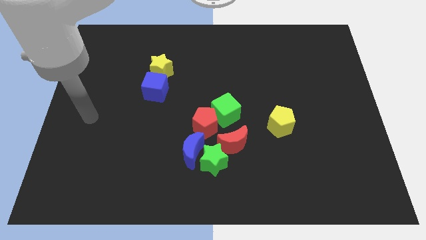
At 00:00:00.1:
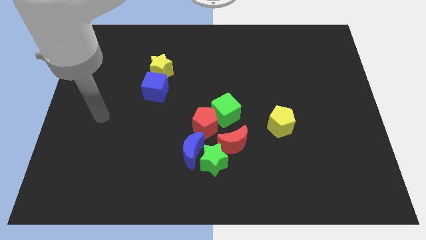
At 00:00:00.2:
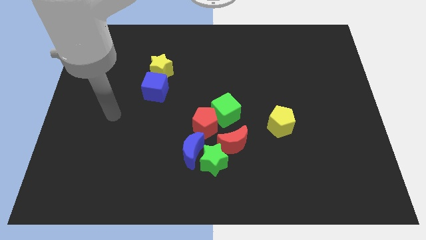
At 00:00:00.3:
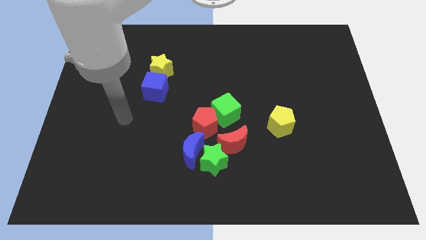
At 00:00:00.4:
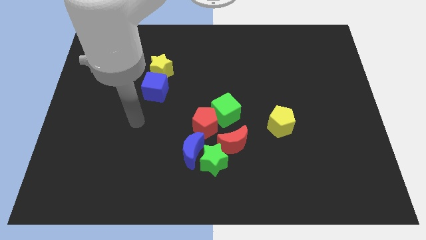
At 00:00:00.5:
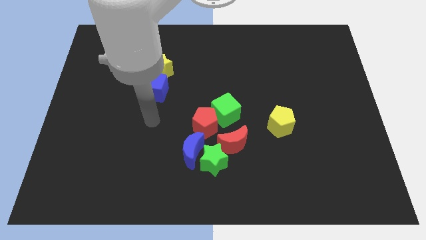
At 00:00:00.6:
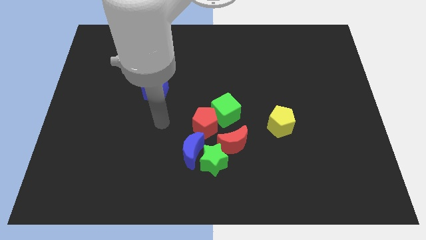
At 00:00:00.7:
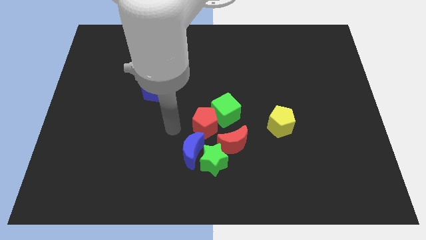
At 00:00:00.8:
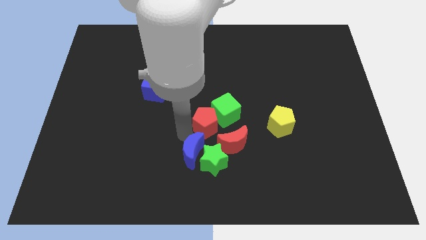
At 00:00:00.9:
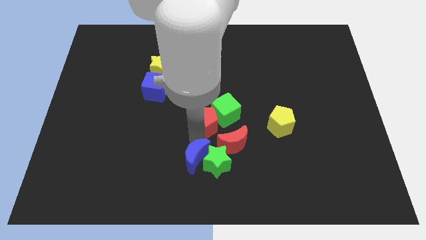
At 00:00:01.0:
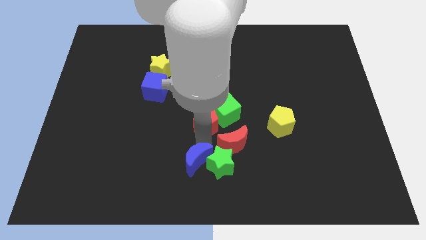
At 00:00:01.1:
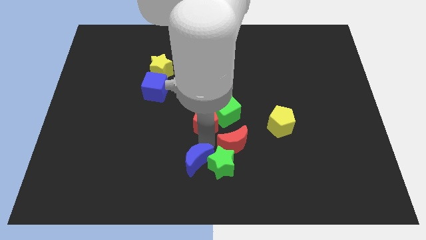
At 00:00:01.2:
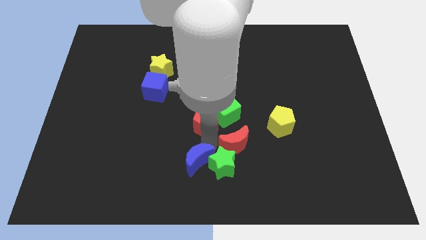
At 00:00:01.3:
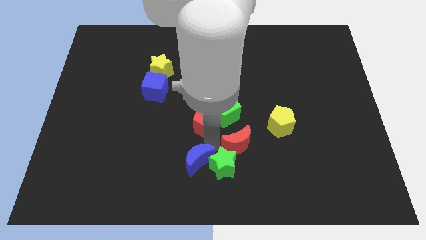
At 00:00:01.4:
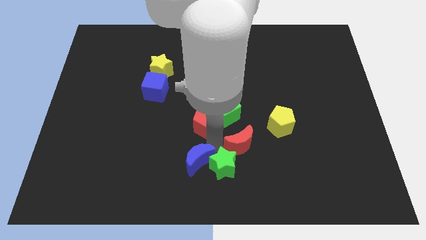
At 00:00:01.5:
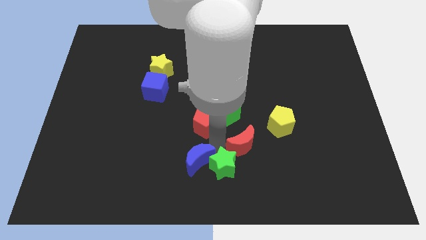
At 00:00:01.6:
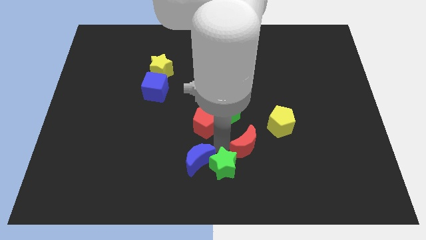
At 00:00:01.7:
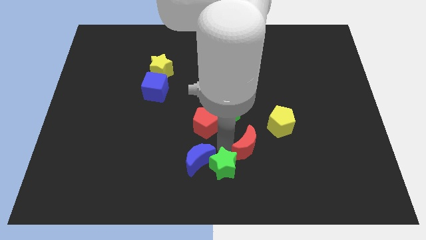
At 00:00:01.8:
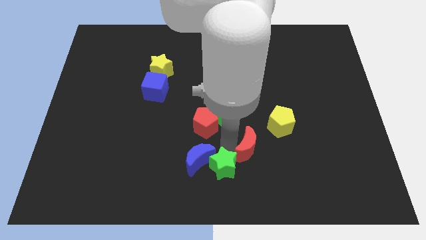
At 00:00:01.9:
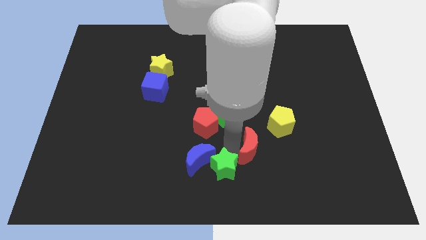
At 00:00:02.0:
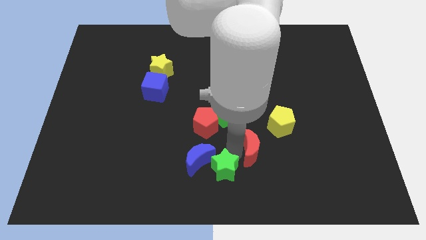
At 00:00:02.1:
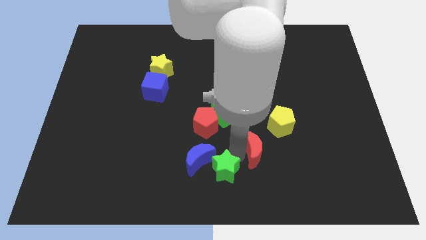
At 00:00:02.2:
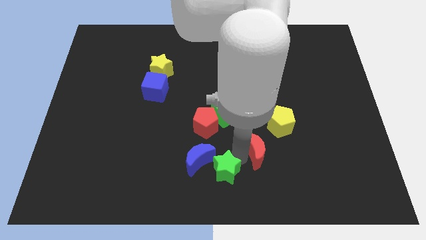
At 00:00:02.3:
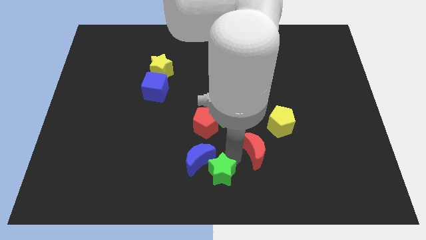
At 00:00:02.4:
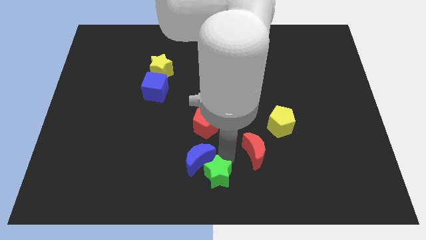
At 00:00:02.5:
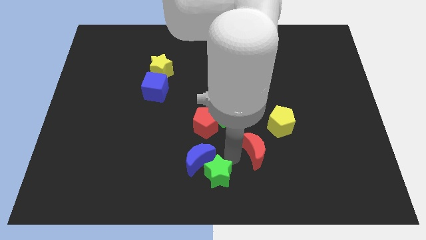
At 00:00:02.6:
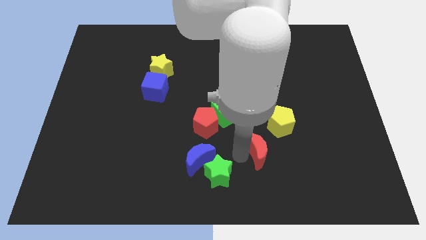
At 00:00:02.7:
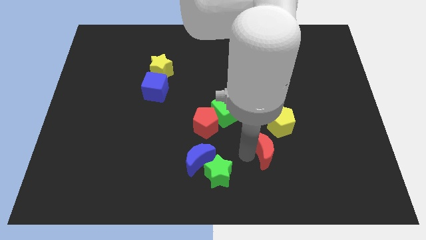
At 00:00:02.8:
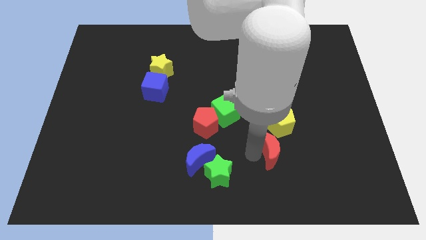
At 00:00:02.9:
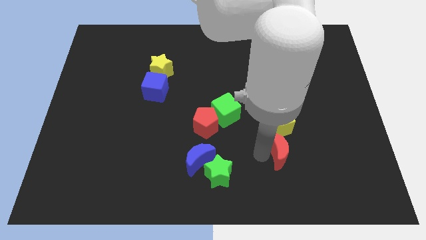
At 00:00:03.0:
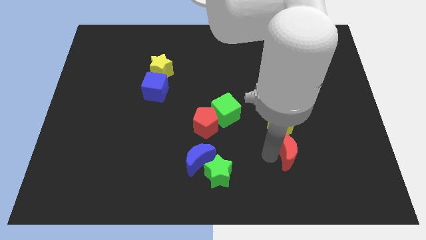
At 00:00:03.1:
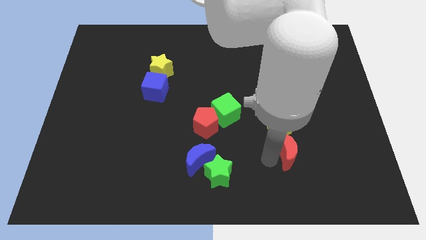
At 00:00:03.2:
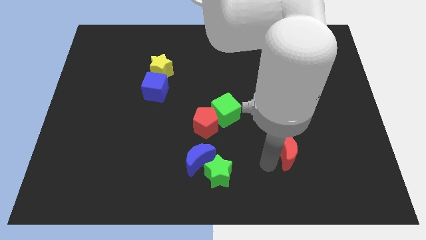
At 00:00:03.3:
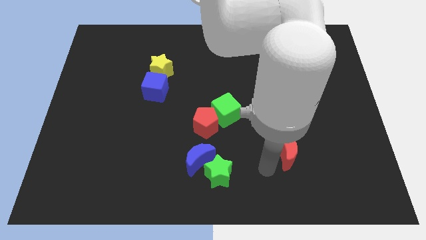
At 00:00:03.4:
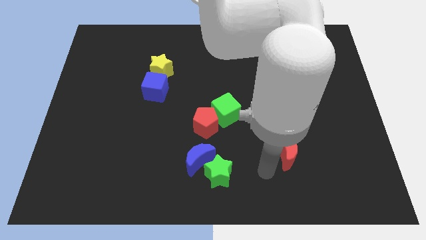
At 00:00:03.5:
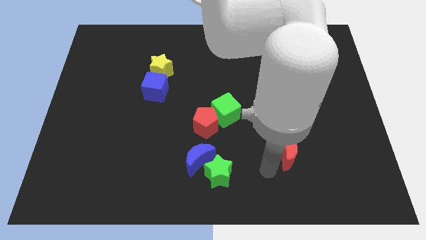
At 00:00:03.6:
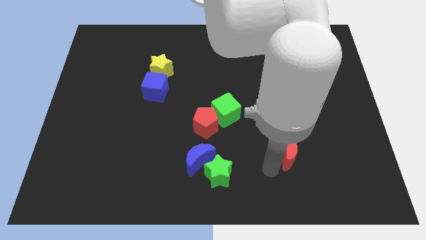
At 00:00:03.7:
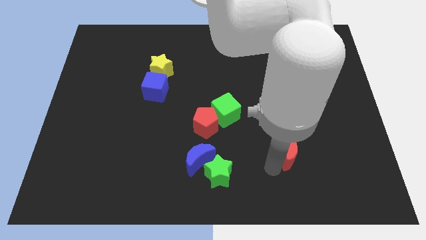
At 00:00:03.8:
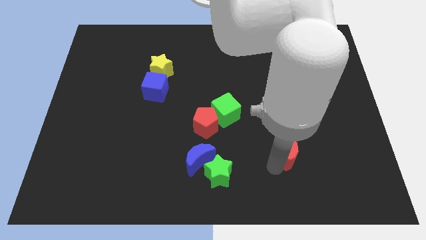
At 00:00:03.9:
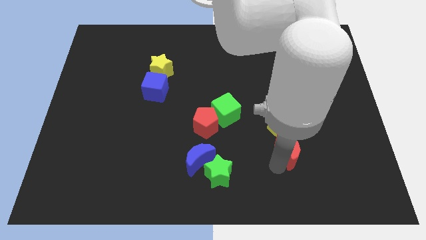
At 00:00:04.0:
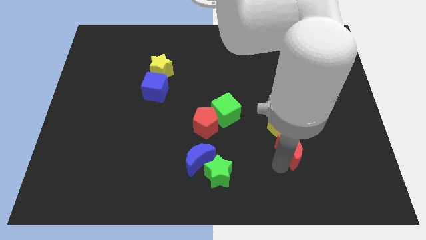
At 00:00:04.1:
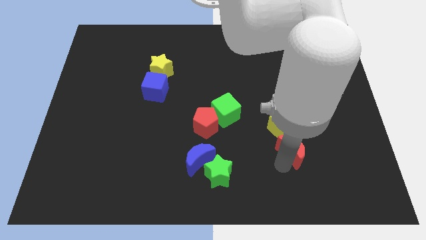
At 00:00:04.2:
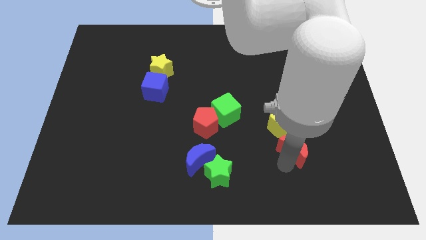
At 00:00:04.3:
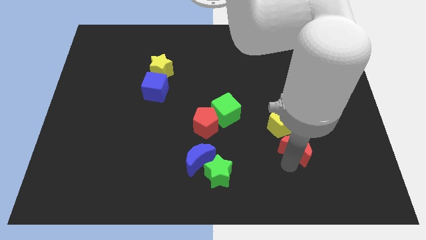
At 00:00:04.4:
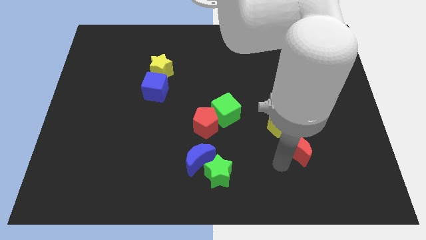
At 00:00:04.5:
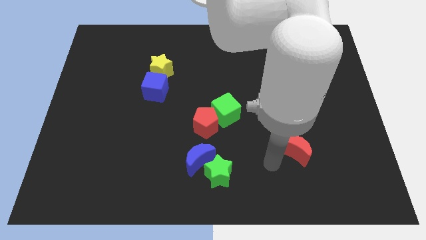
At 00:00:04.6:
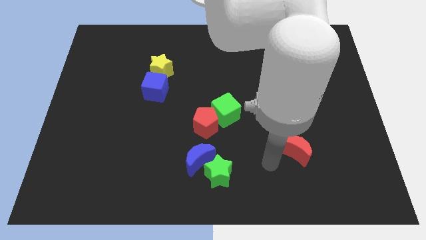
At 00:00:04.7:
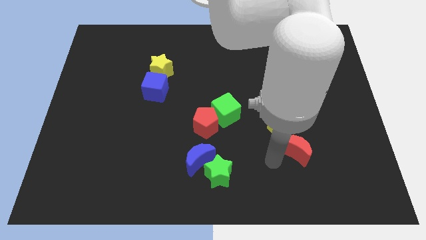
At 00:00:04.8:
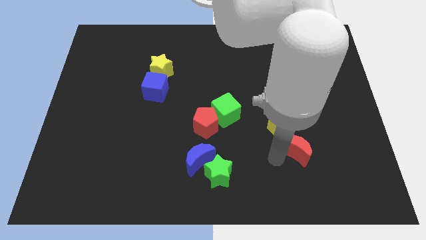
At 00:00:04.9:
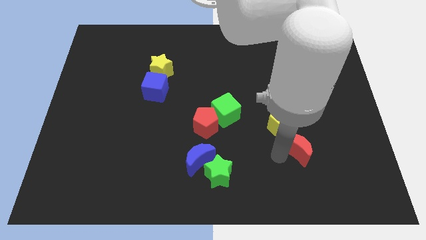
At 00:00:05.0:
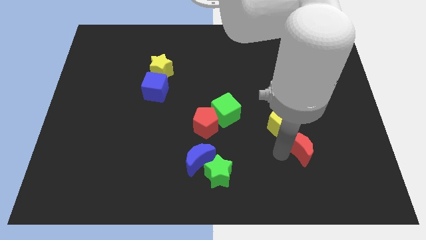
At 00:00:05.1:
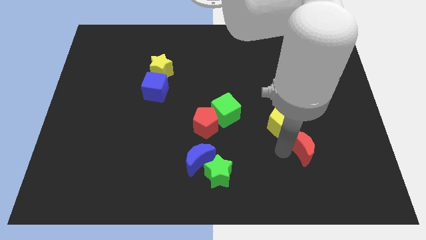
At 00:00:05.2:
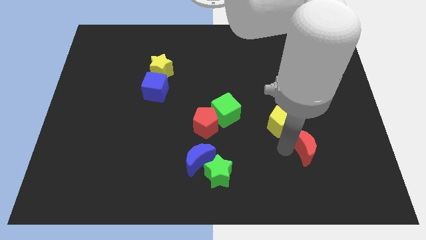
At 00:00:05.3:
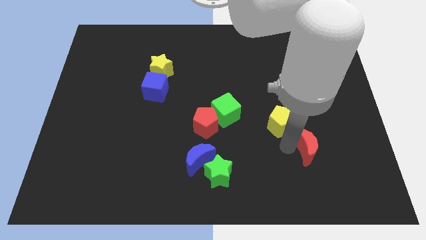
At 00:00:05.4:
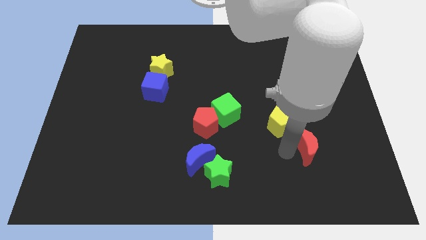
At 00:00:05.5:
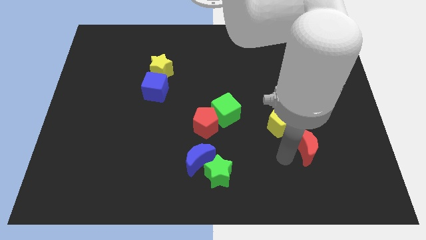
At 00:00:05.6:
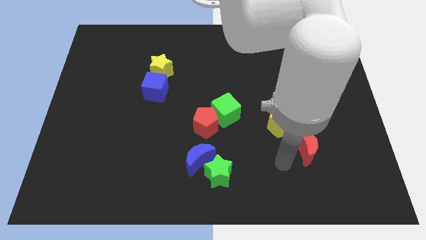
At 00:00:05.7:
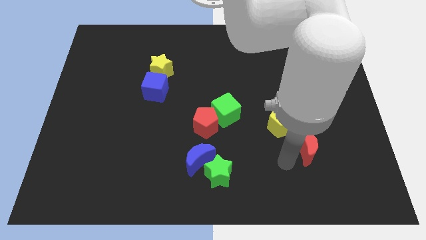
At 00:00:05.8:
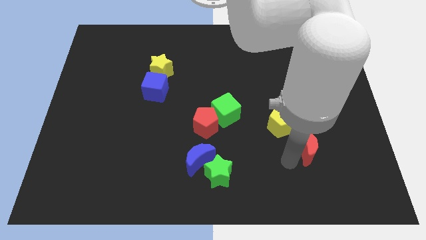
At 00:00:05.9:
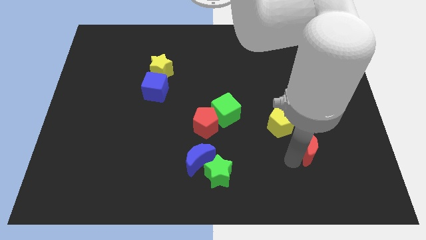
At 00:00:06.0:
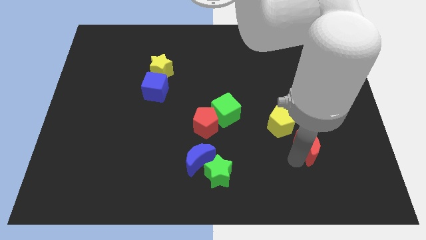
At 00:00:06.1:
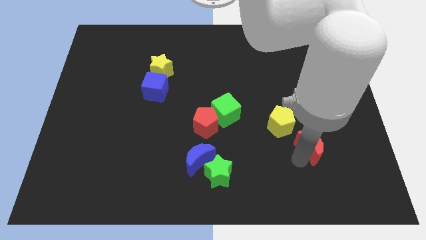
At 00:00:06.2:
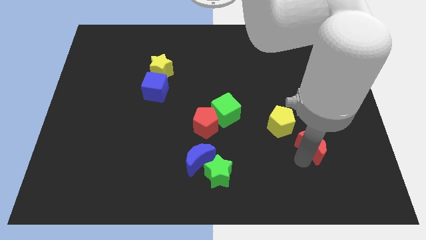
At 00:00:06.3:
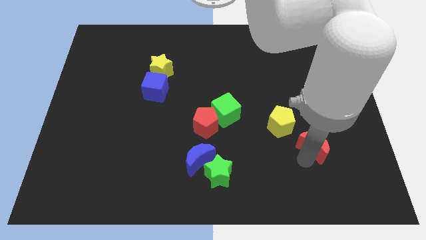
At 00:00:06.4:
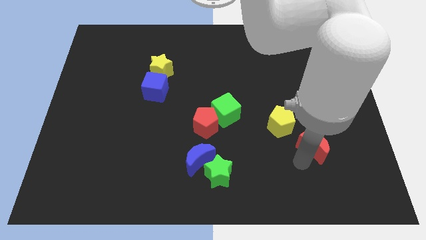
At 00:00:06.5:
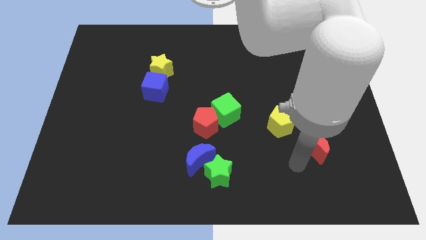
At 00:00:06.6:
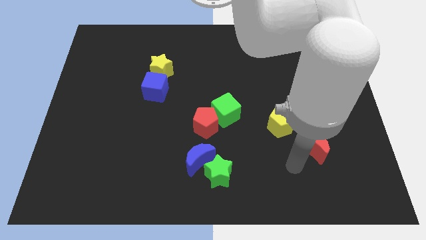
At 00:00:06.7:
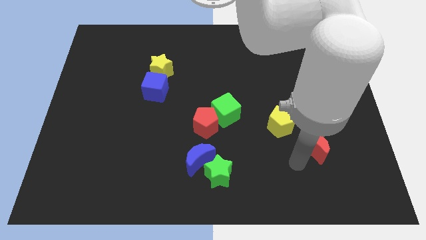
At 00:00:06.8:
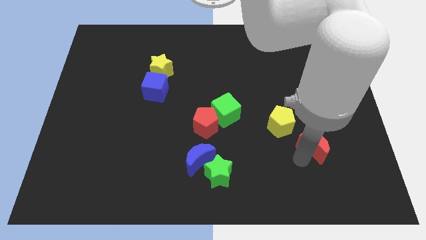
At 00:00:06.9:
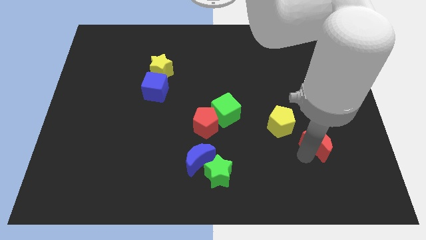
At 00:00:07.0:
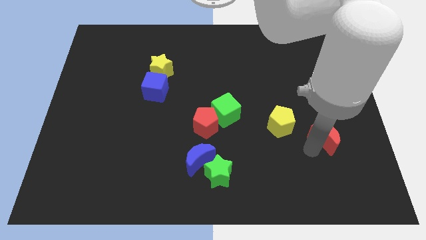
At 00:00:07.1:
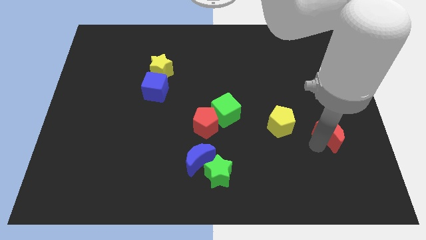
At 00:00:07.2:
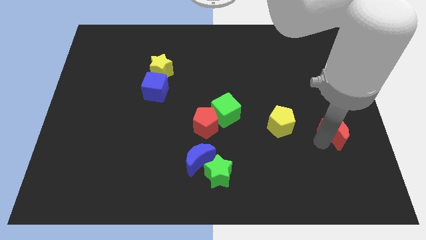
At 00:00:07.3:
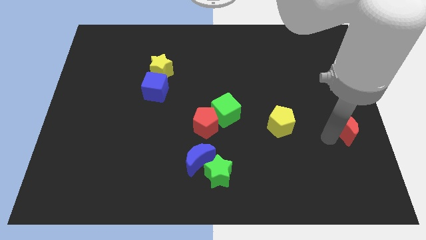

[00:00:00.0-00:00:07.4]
slide the red moon to the center right
